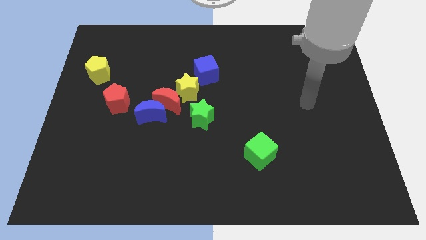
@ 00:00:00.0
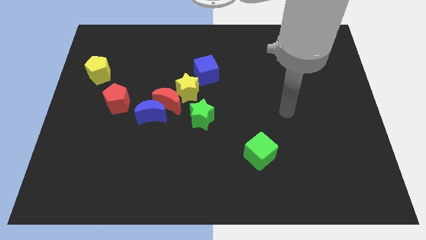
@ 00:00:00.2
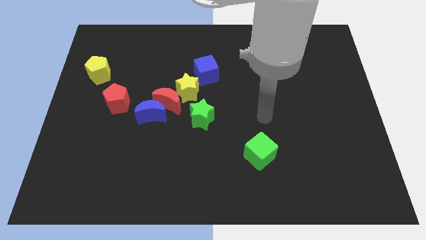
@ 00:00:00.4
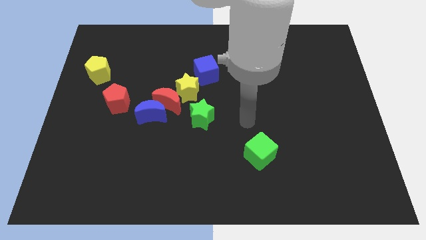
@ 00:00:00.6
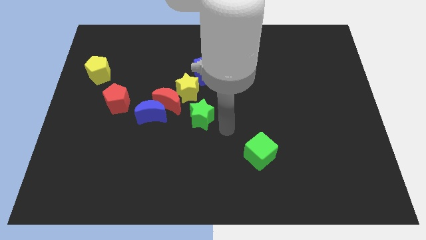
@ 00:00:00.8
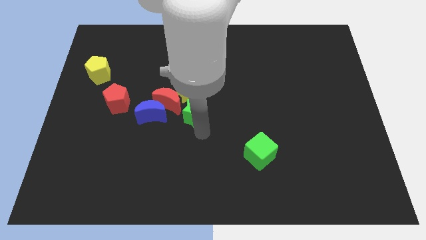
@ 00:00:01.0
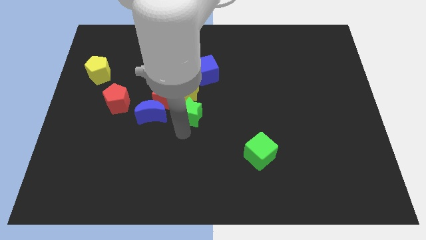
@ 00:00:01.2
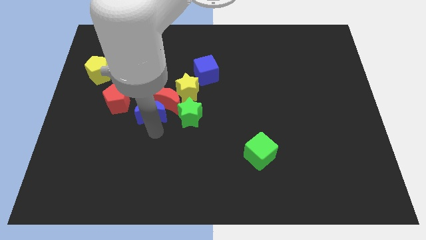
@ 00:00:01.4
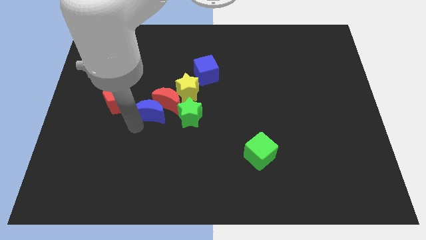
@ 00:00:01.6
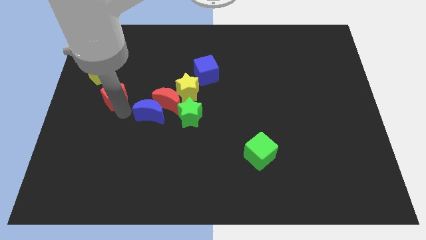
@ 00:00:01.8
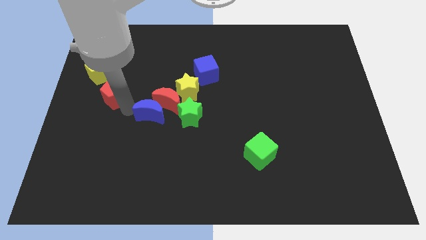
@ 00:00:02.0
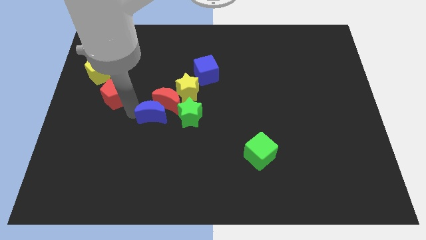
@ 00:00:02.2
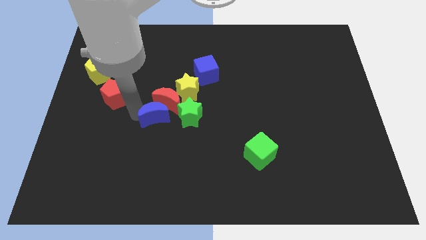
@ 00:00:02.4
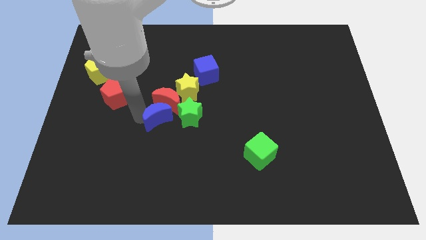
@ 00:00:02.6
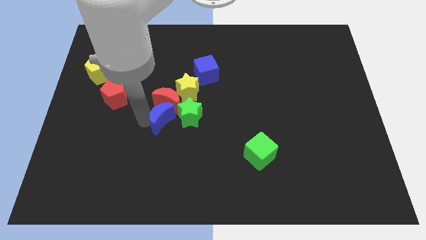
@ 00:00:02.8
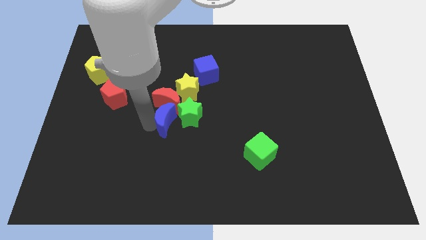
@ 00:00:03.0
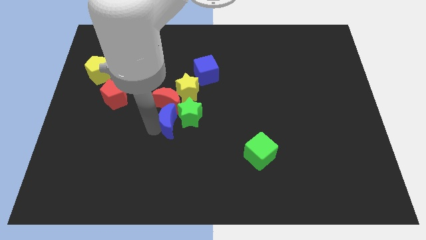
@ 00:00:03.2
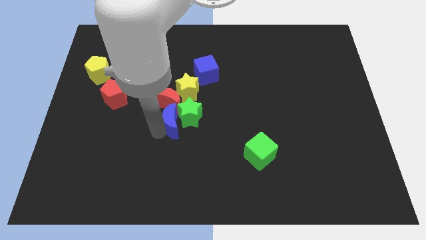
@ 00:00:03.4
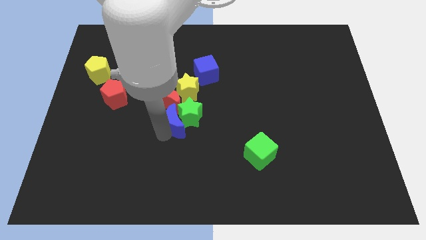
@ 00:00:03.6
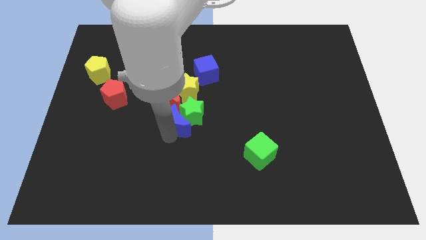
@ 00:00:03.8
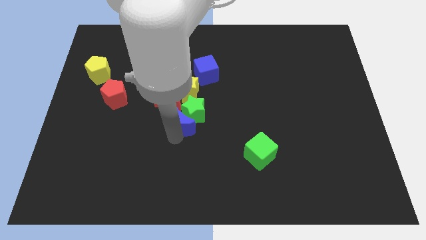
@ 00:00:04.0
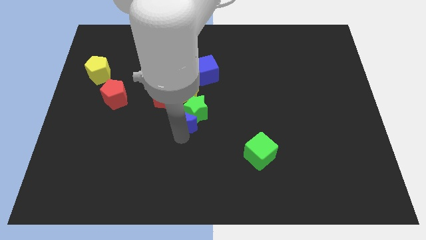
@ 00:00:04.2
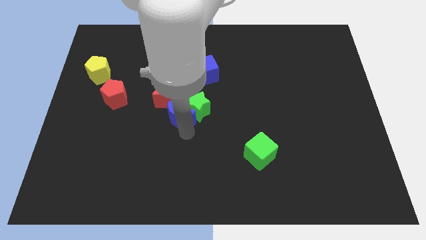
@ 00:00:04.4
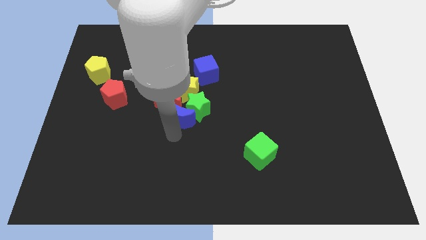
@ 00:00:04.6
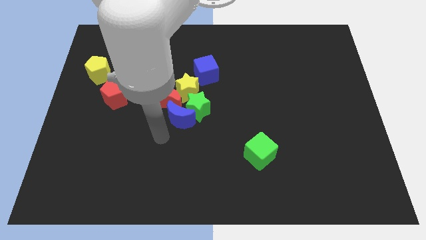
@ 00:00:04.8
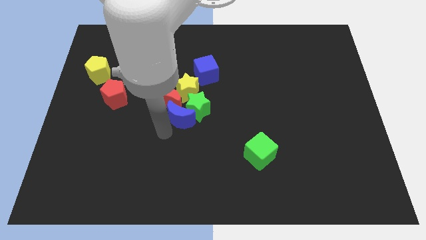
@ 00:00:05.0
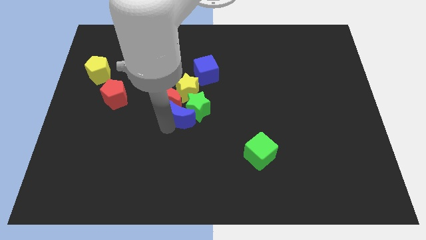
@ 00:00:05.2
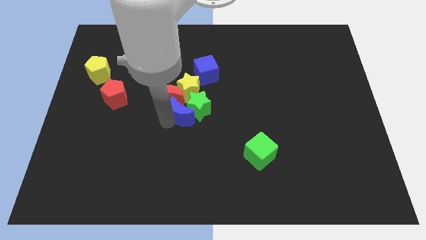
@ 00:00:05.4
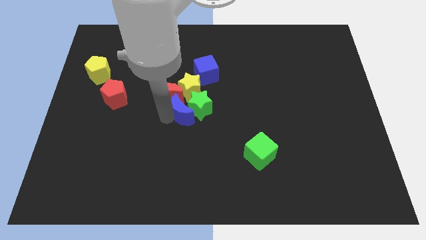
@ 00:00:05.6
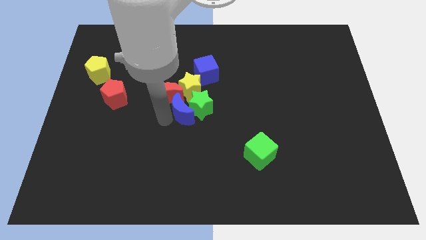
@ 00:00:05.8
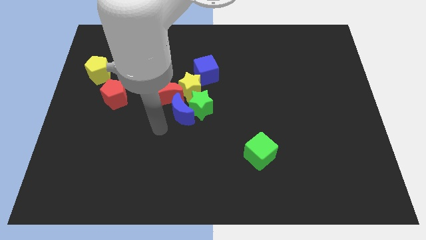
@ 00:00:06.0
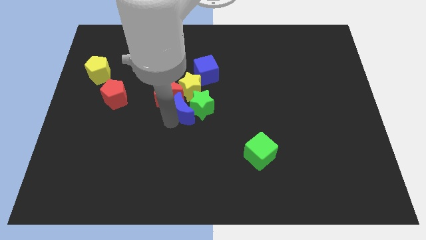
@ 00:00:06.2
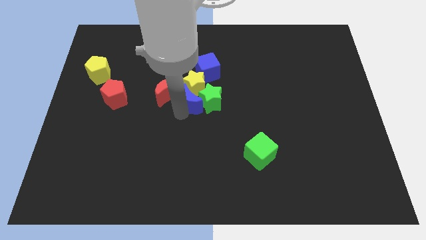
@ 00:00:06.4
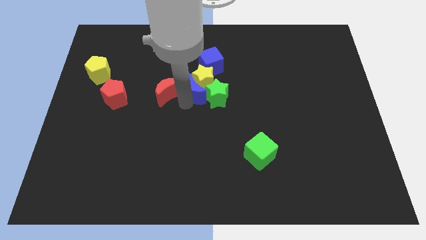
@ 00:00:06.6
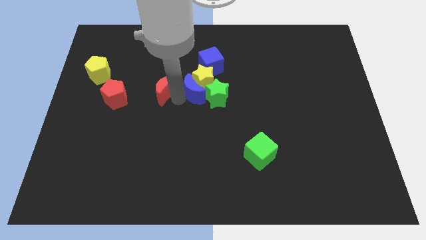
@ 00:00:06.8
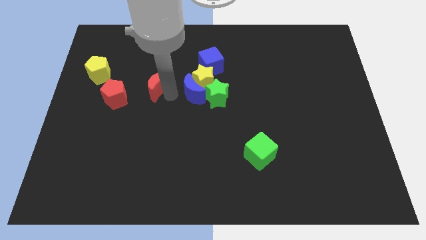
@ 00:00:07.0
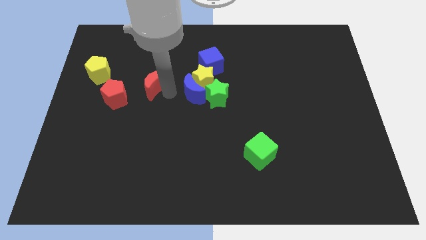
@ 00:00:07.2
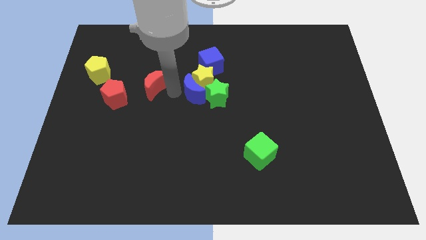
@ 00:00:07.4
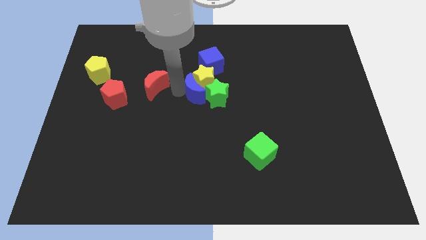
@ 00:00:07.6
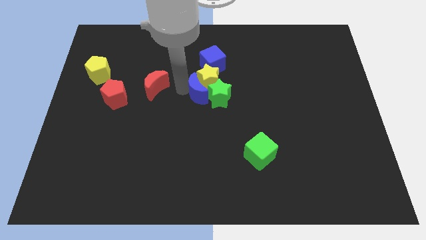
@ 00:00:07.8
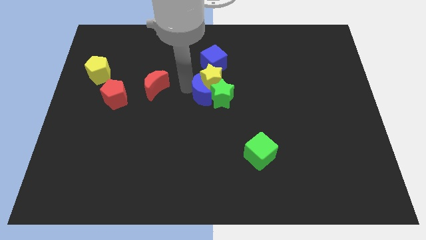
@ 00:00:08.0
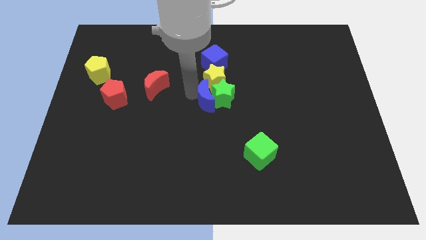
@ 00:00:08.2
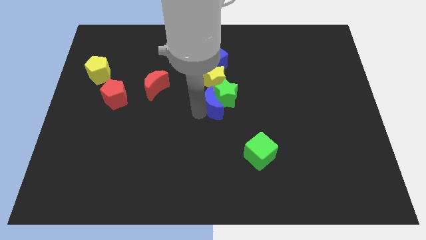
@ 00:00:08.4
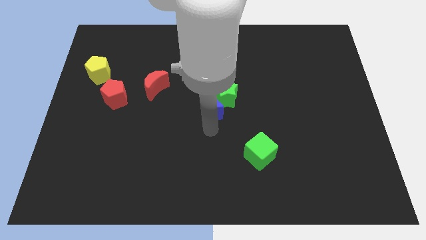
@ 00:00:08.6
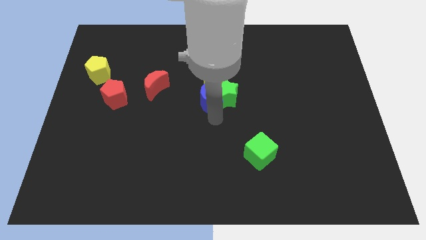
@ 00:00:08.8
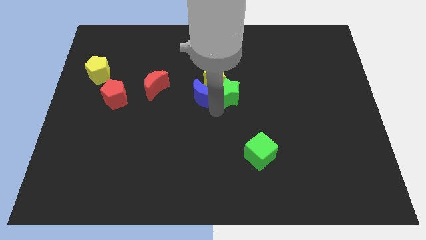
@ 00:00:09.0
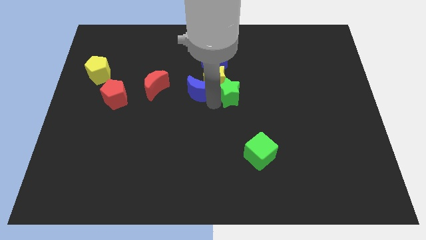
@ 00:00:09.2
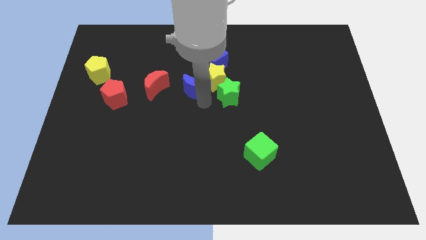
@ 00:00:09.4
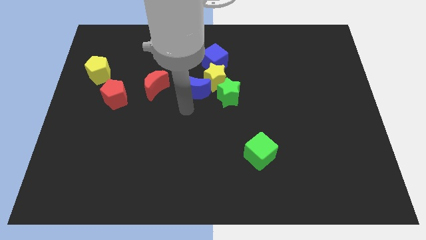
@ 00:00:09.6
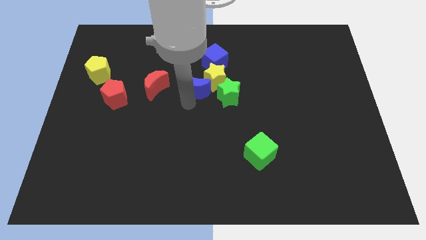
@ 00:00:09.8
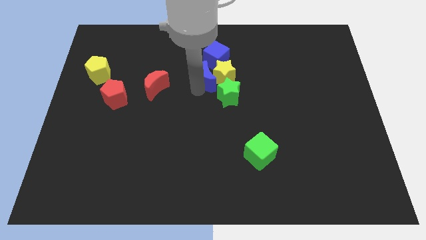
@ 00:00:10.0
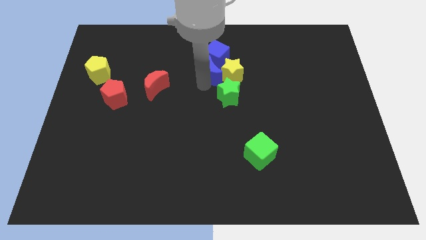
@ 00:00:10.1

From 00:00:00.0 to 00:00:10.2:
slide the blue moon to the blue cube

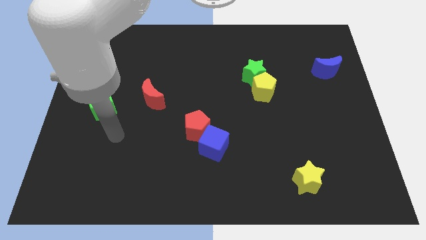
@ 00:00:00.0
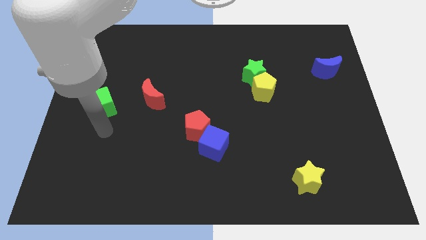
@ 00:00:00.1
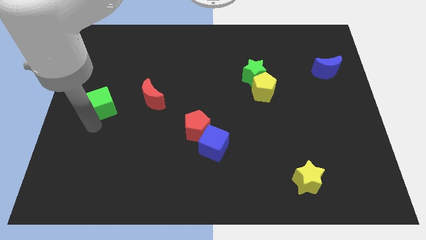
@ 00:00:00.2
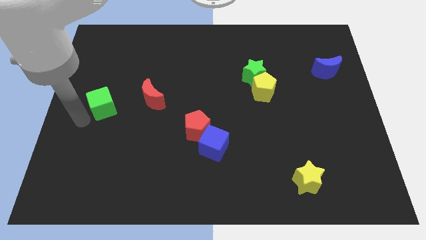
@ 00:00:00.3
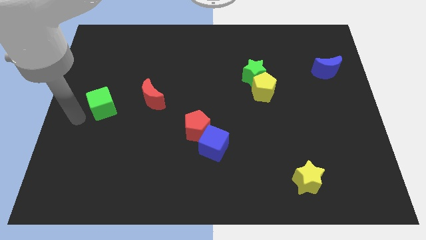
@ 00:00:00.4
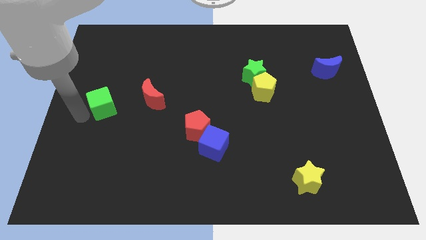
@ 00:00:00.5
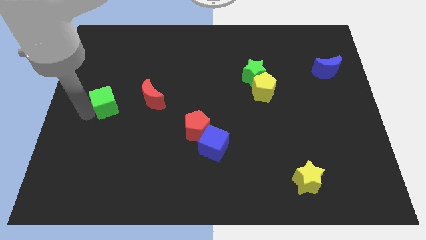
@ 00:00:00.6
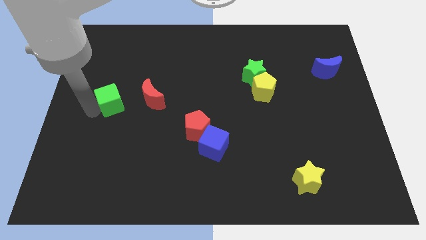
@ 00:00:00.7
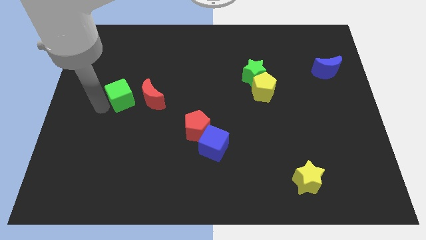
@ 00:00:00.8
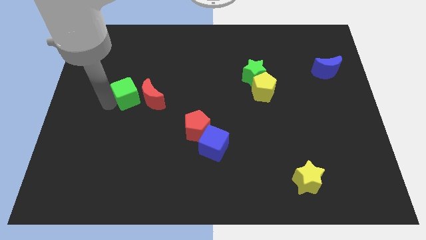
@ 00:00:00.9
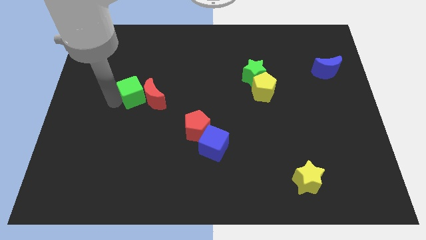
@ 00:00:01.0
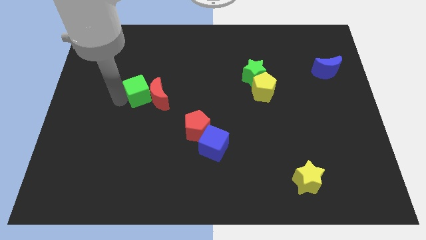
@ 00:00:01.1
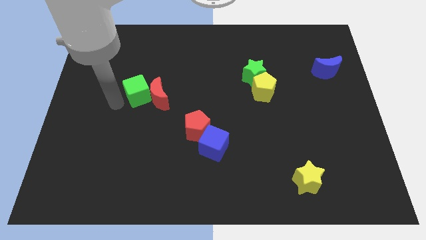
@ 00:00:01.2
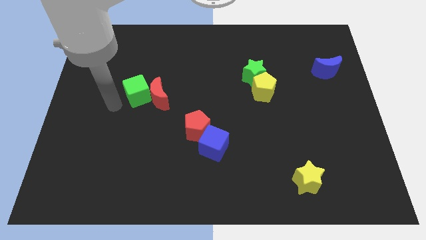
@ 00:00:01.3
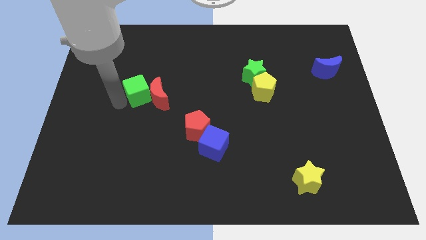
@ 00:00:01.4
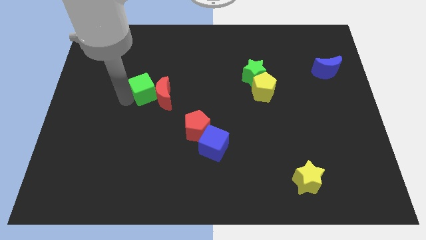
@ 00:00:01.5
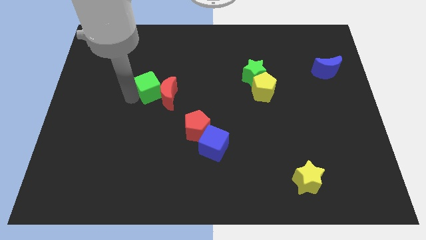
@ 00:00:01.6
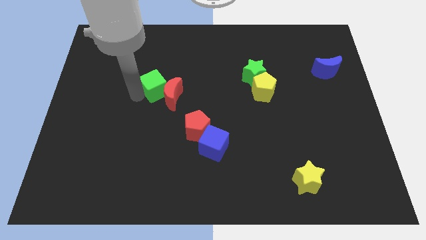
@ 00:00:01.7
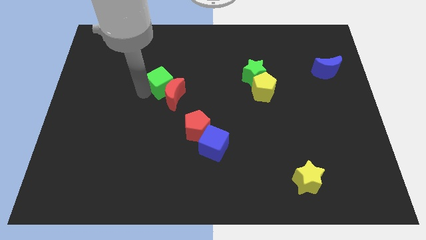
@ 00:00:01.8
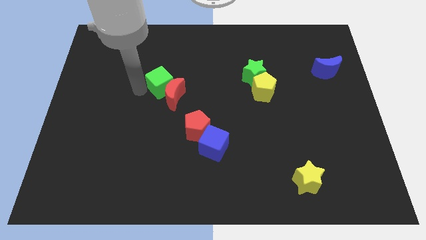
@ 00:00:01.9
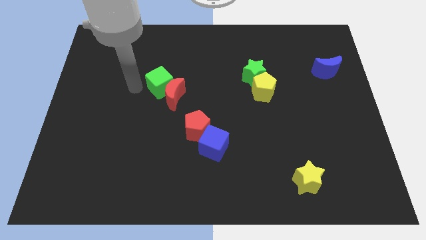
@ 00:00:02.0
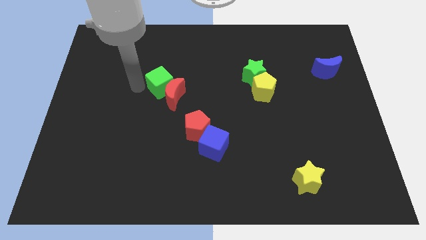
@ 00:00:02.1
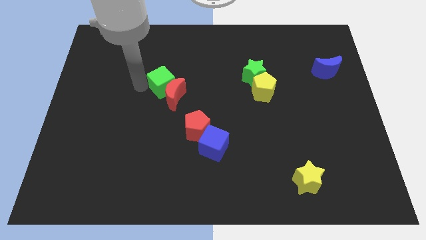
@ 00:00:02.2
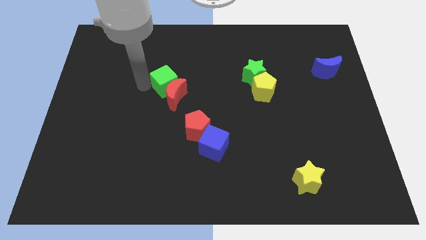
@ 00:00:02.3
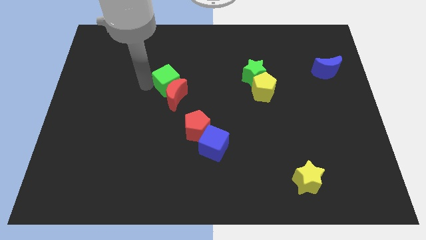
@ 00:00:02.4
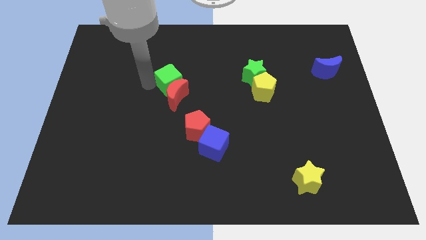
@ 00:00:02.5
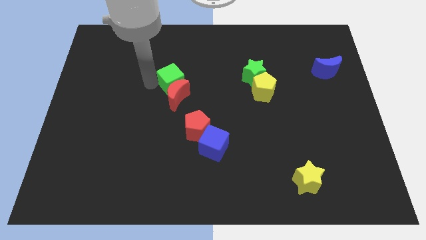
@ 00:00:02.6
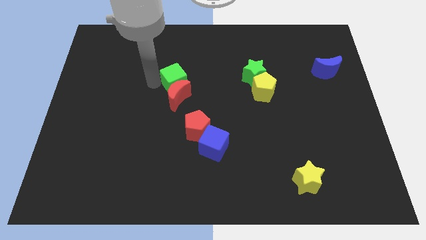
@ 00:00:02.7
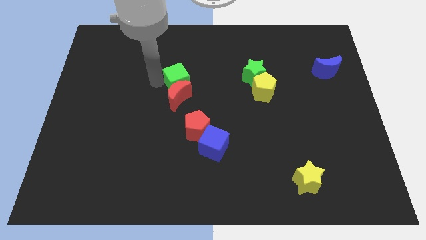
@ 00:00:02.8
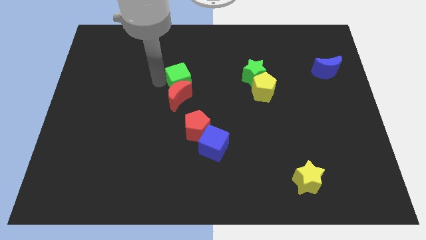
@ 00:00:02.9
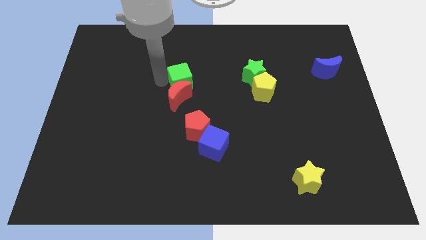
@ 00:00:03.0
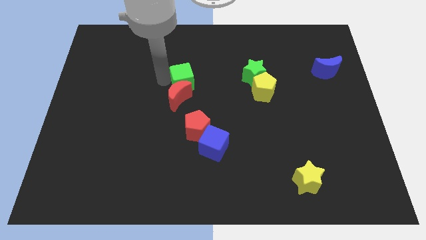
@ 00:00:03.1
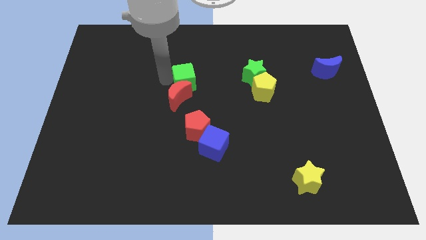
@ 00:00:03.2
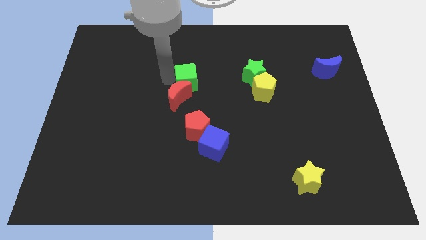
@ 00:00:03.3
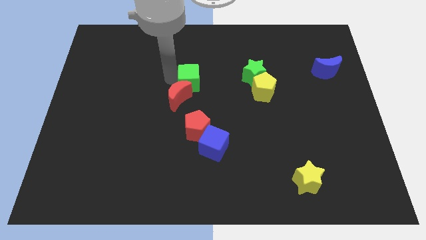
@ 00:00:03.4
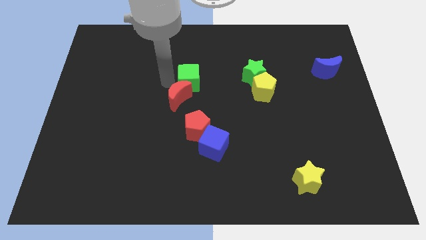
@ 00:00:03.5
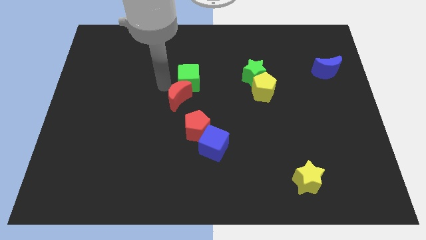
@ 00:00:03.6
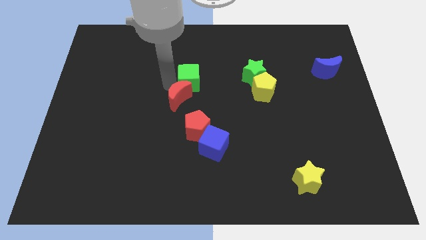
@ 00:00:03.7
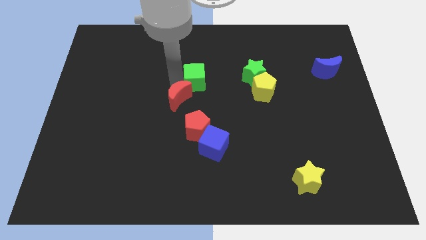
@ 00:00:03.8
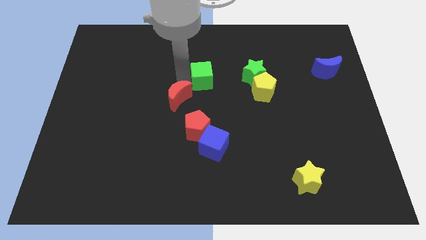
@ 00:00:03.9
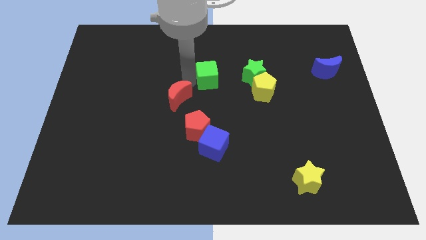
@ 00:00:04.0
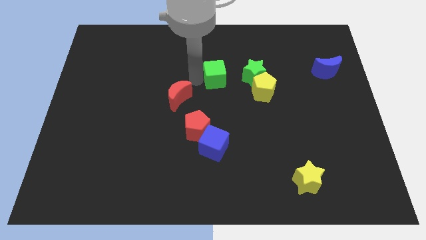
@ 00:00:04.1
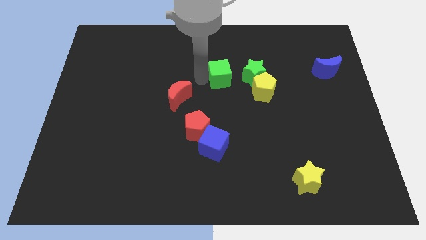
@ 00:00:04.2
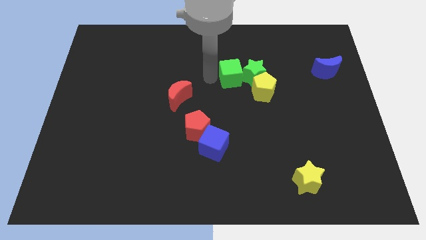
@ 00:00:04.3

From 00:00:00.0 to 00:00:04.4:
push the green cube close to the green star
